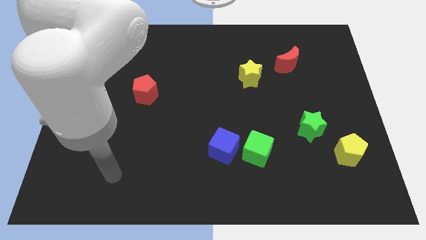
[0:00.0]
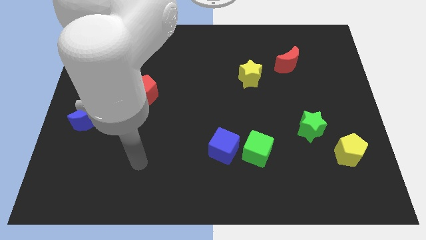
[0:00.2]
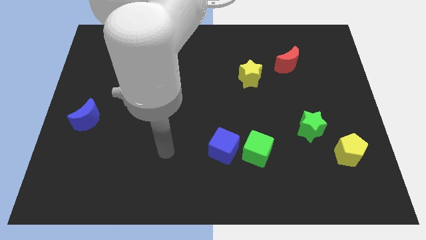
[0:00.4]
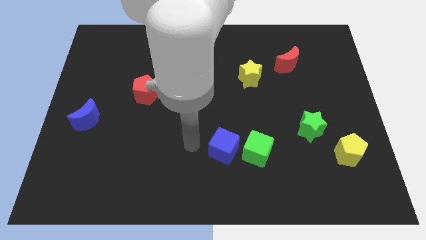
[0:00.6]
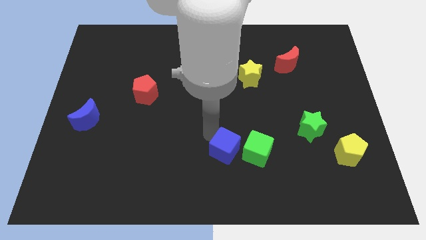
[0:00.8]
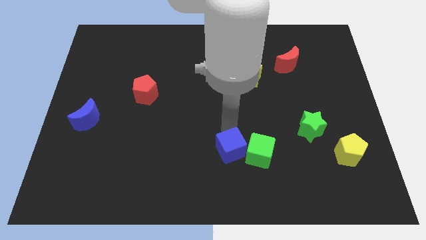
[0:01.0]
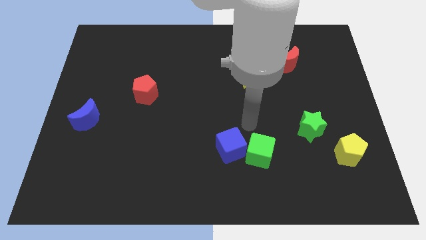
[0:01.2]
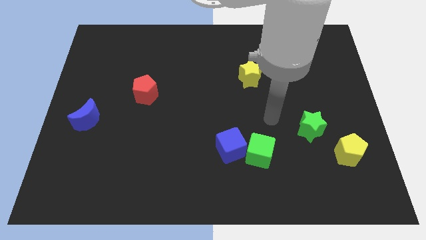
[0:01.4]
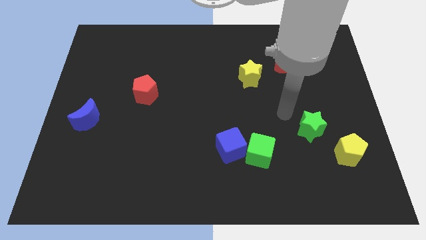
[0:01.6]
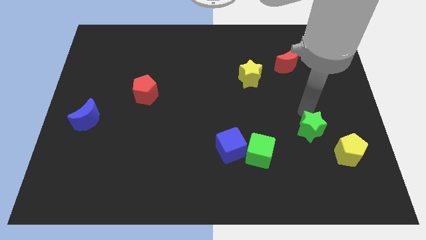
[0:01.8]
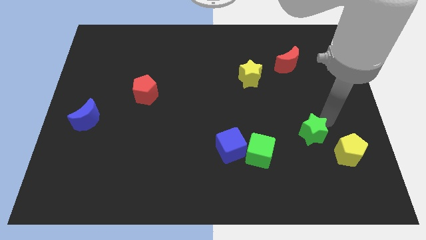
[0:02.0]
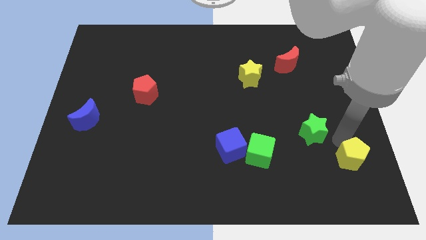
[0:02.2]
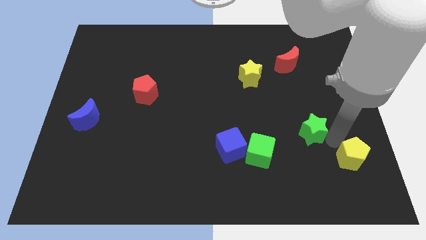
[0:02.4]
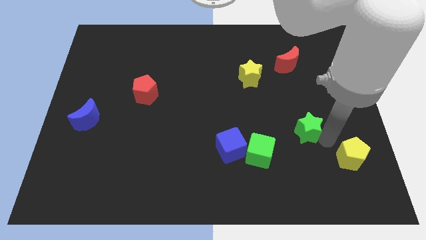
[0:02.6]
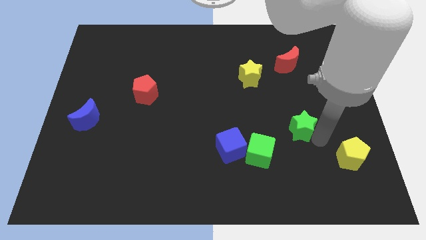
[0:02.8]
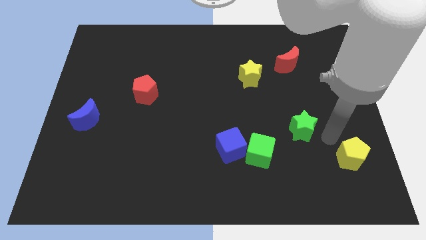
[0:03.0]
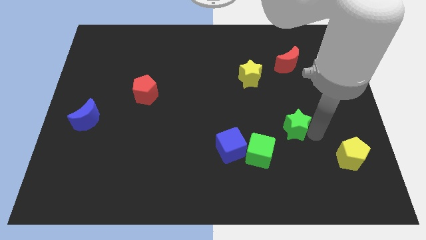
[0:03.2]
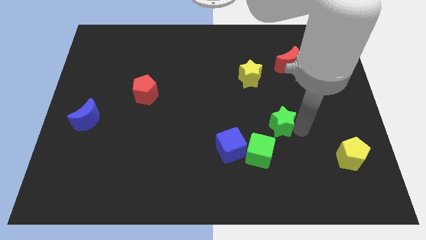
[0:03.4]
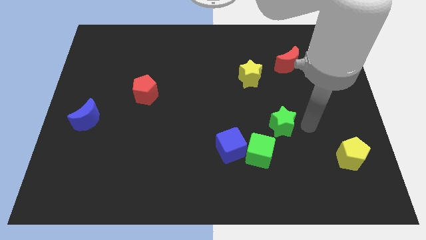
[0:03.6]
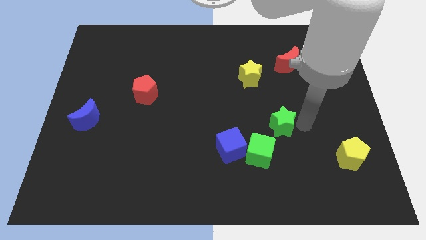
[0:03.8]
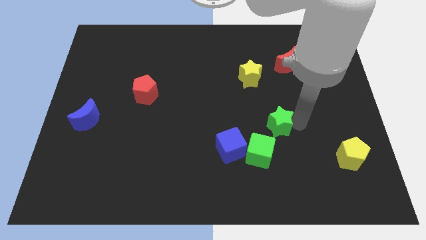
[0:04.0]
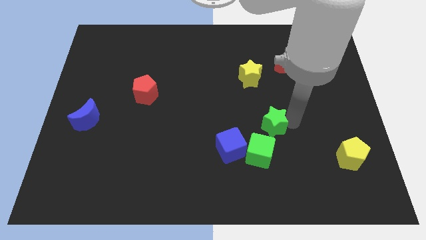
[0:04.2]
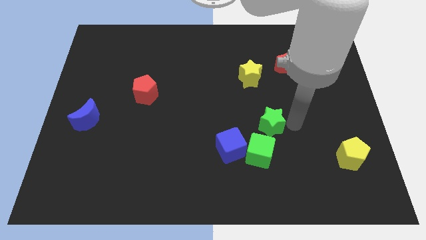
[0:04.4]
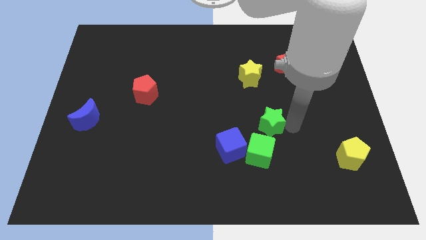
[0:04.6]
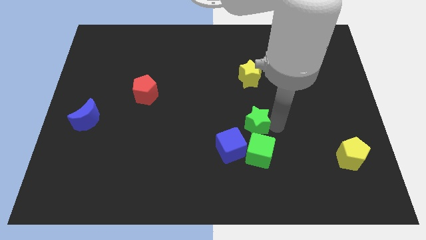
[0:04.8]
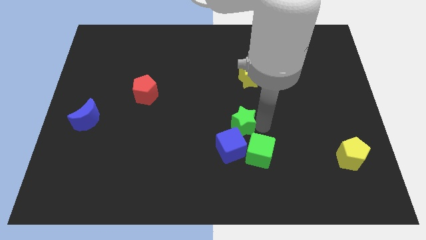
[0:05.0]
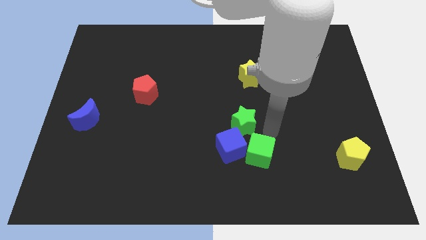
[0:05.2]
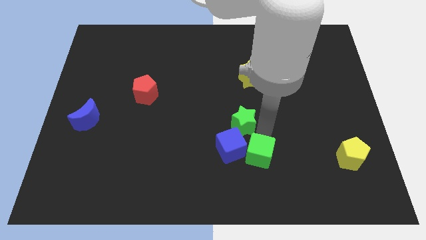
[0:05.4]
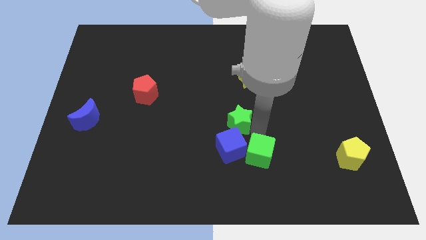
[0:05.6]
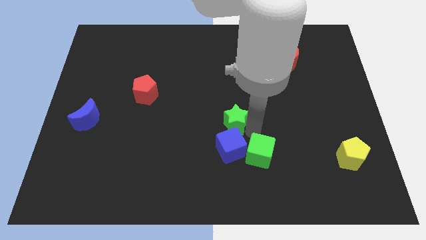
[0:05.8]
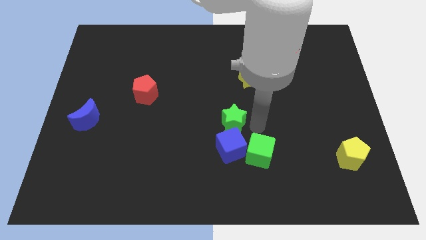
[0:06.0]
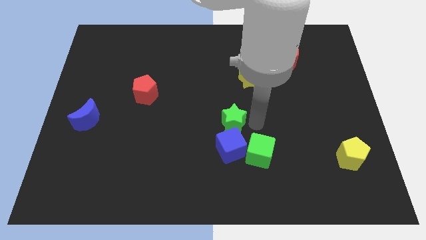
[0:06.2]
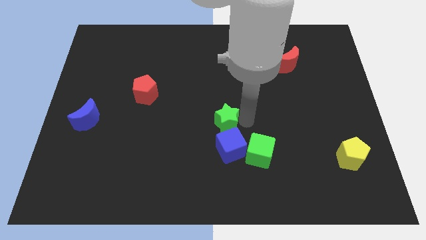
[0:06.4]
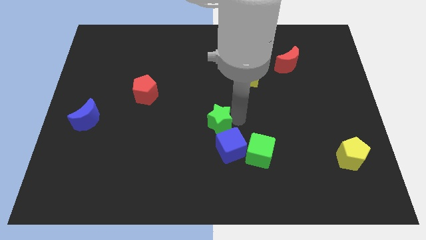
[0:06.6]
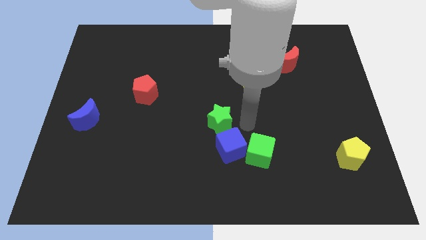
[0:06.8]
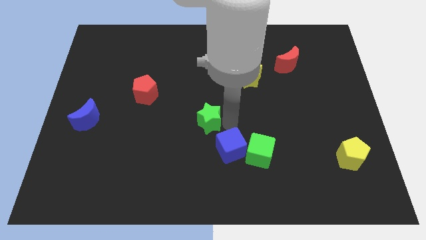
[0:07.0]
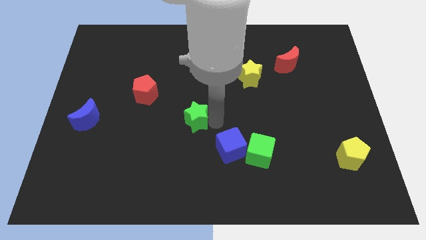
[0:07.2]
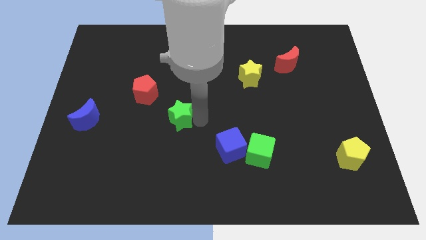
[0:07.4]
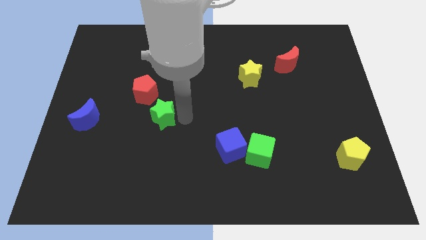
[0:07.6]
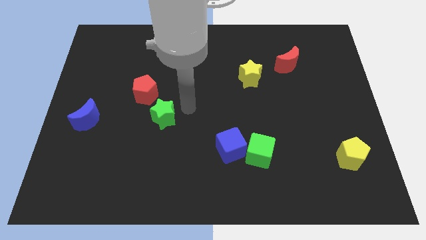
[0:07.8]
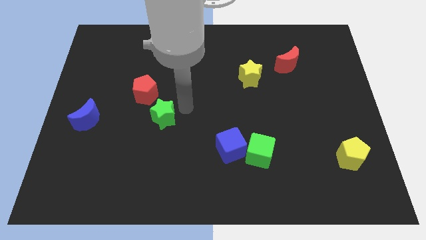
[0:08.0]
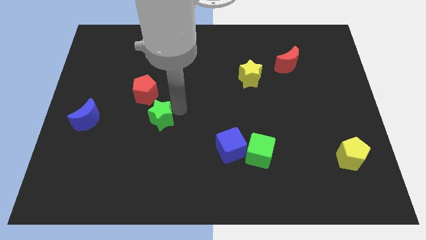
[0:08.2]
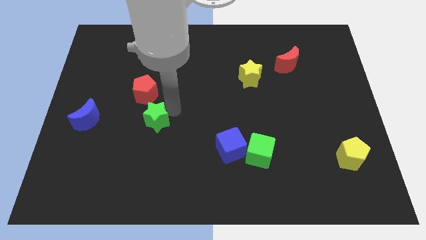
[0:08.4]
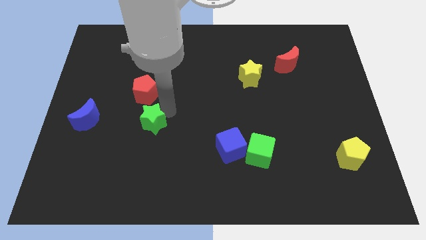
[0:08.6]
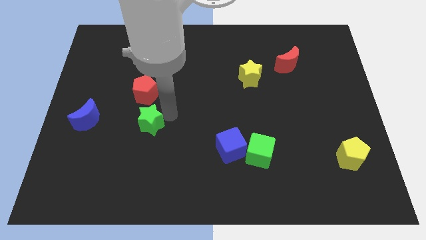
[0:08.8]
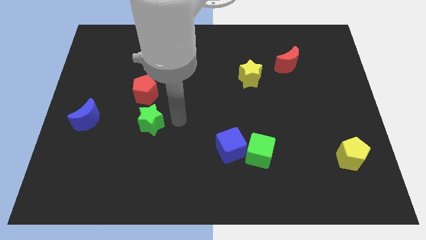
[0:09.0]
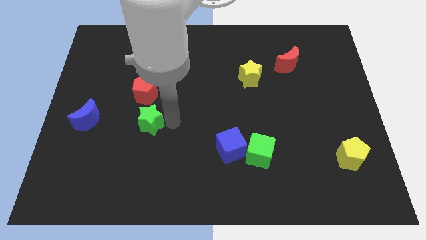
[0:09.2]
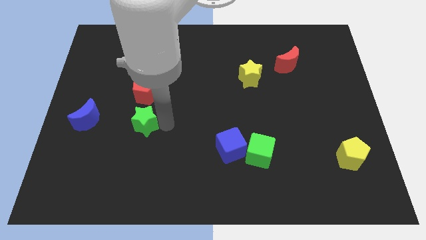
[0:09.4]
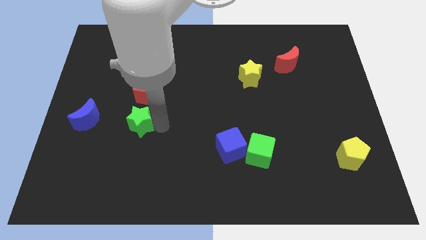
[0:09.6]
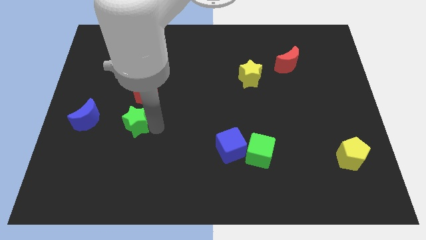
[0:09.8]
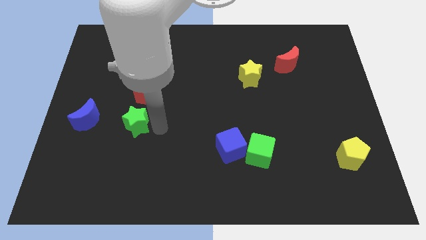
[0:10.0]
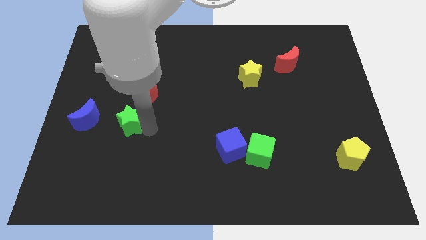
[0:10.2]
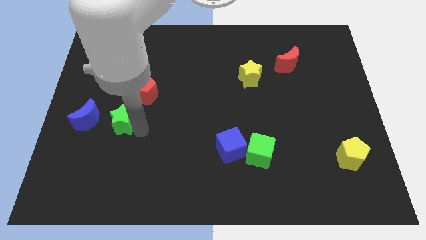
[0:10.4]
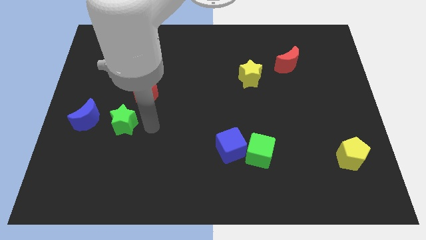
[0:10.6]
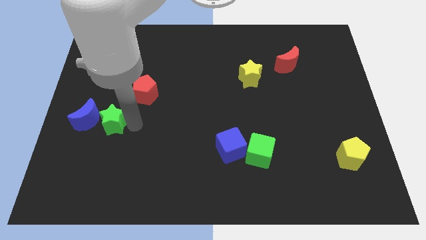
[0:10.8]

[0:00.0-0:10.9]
slide the green star towards the blue moon
